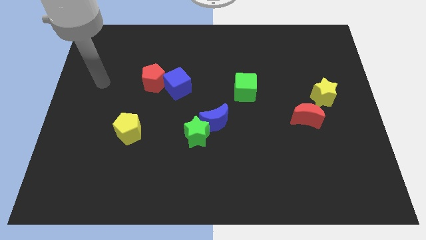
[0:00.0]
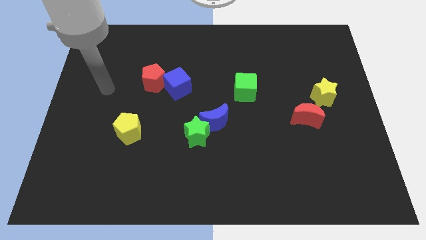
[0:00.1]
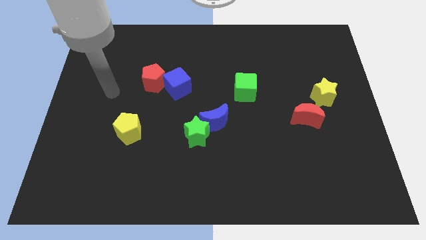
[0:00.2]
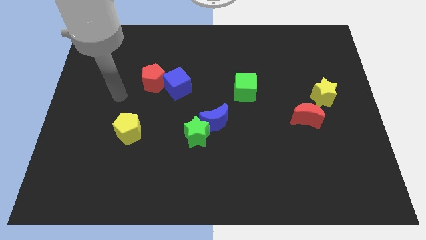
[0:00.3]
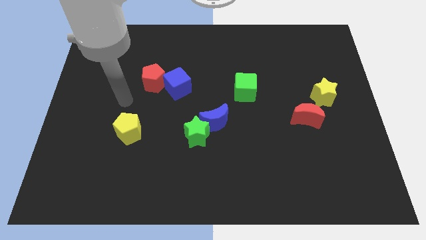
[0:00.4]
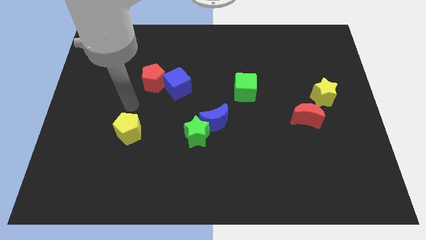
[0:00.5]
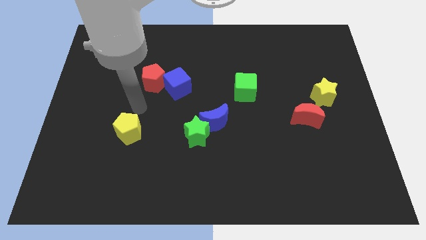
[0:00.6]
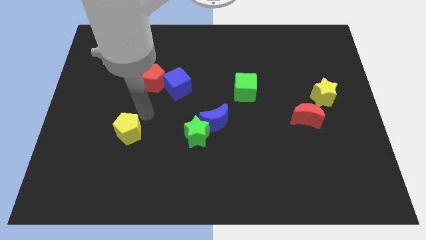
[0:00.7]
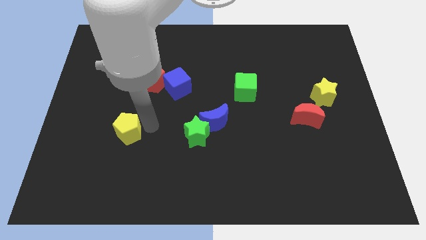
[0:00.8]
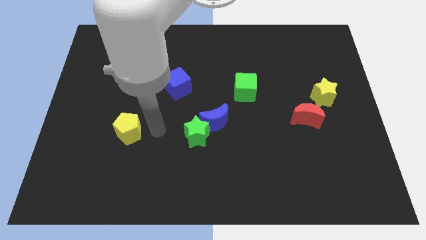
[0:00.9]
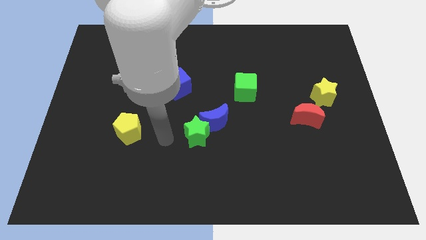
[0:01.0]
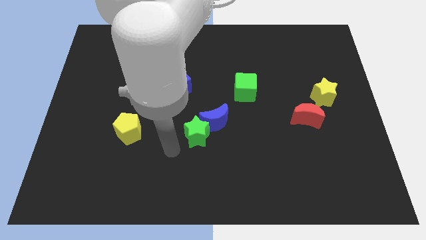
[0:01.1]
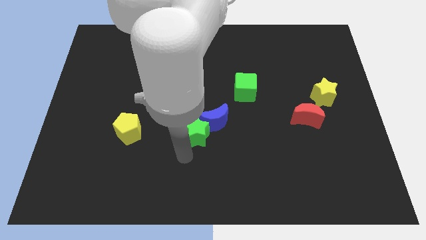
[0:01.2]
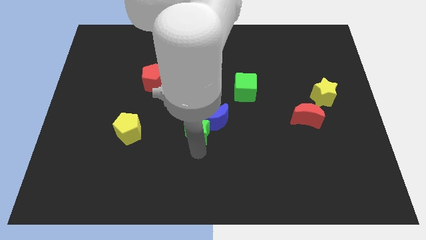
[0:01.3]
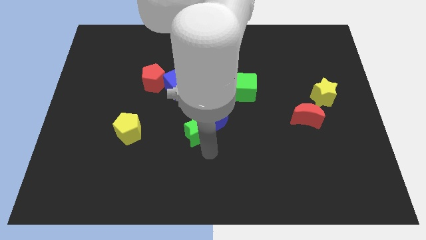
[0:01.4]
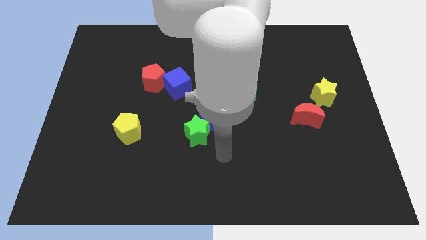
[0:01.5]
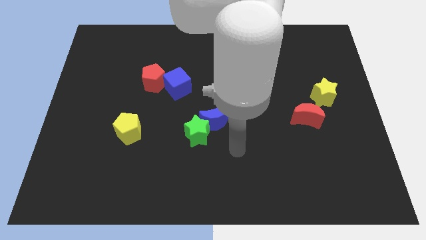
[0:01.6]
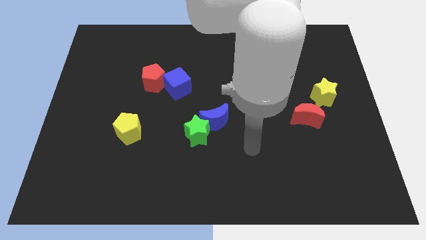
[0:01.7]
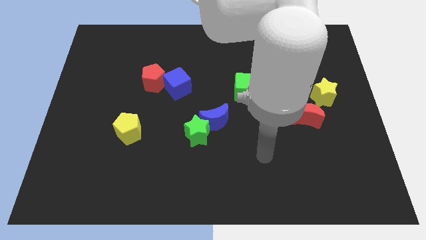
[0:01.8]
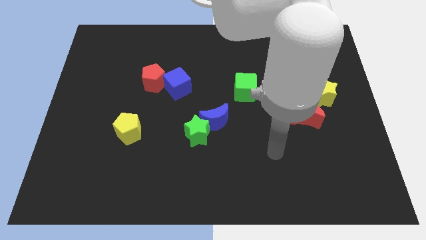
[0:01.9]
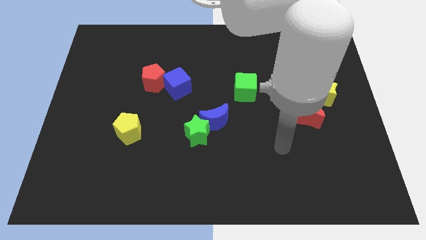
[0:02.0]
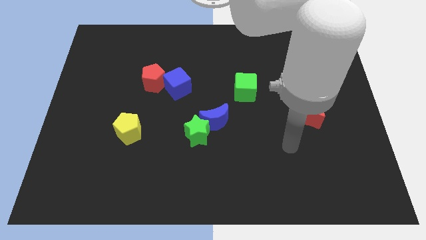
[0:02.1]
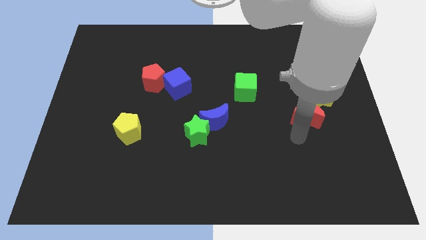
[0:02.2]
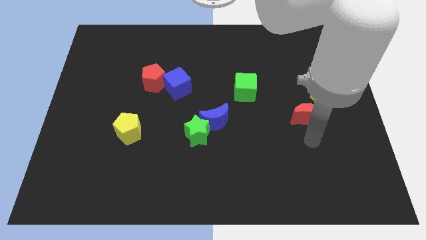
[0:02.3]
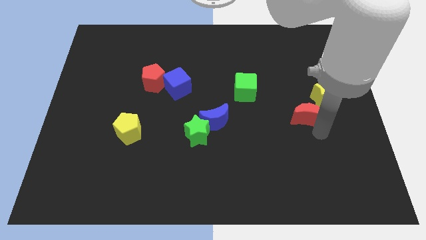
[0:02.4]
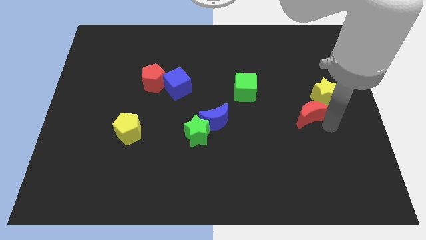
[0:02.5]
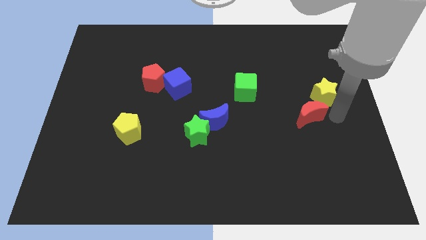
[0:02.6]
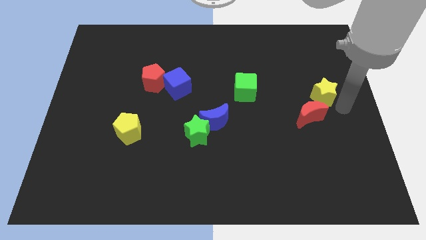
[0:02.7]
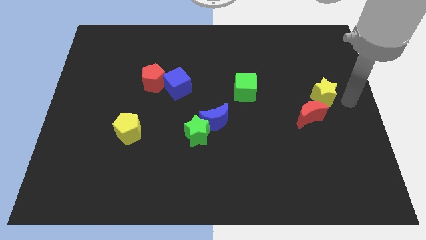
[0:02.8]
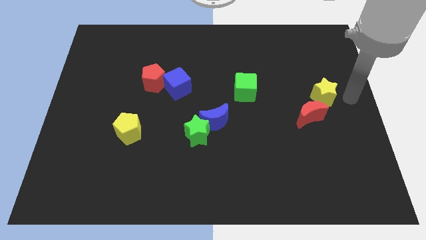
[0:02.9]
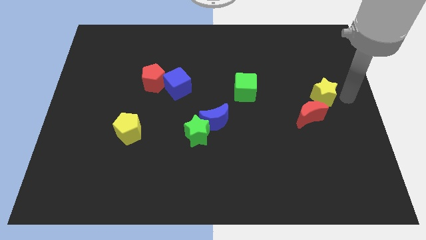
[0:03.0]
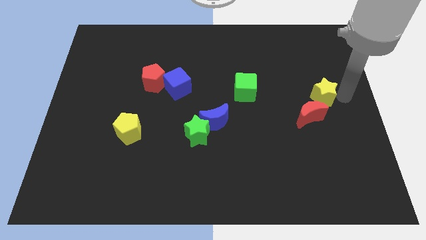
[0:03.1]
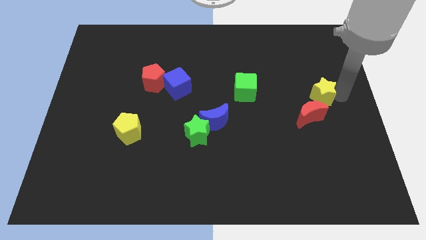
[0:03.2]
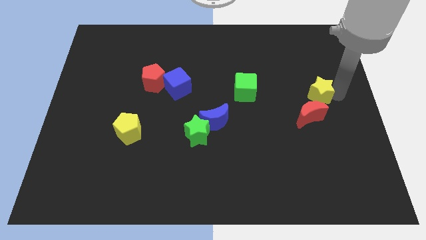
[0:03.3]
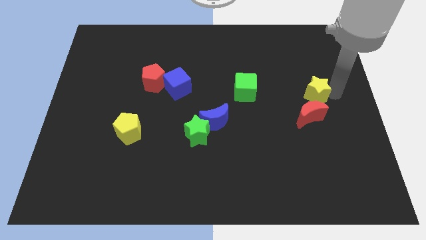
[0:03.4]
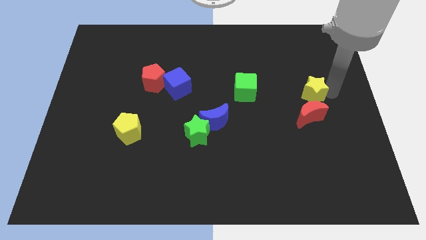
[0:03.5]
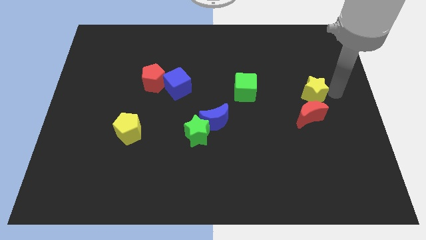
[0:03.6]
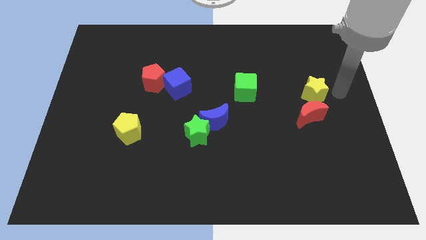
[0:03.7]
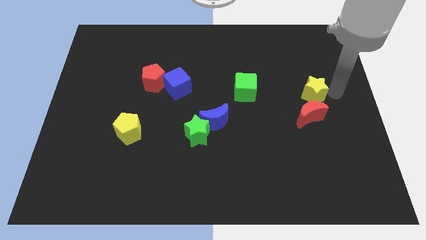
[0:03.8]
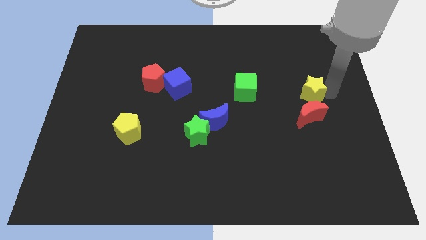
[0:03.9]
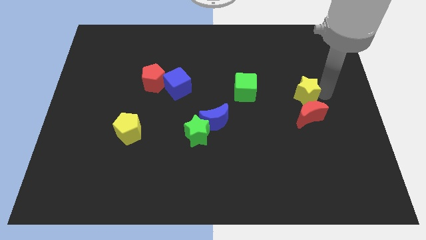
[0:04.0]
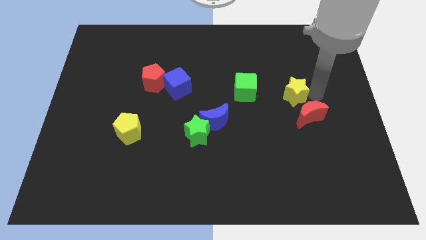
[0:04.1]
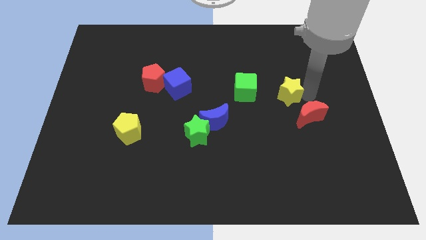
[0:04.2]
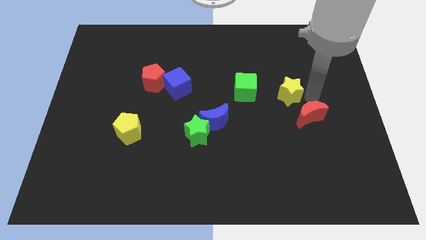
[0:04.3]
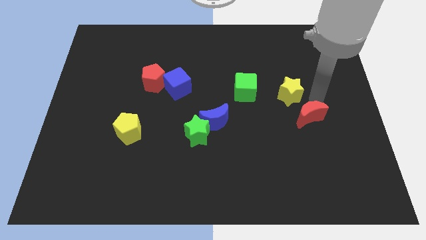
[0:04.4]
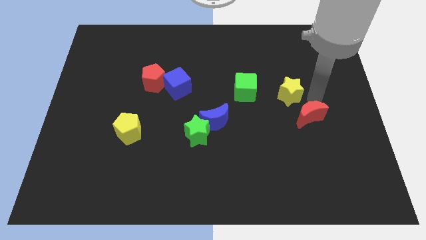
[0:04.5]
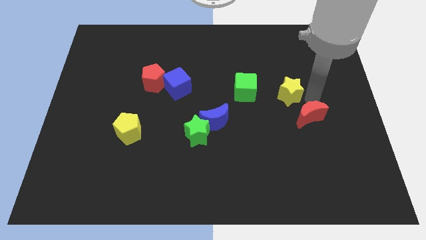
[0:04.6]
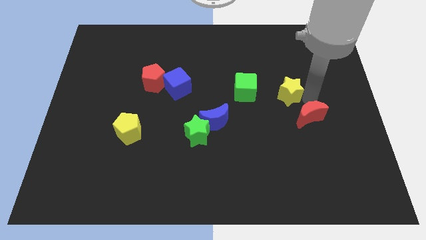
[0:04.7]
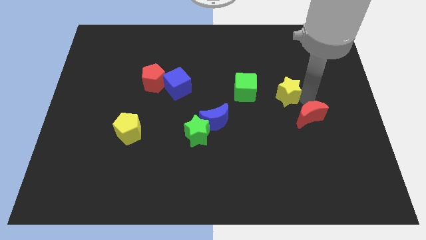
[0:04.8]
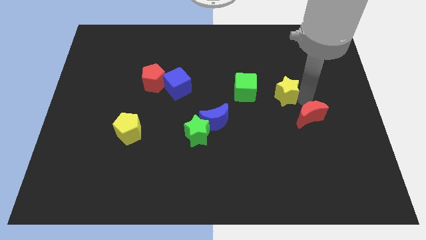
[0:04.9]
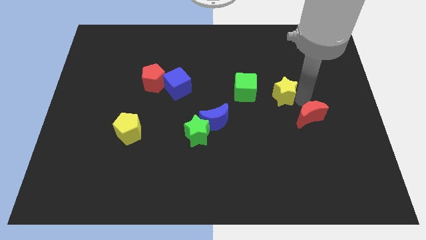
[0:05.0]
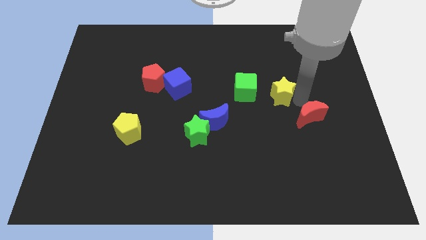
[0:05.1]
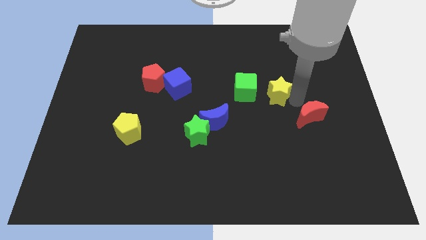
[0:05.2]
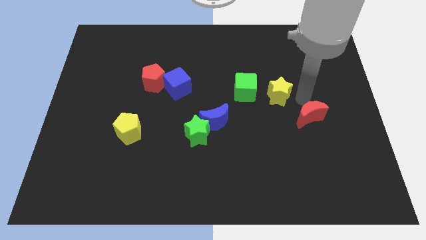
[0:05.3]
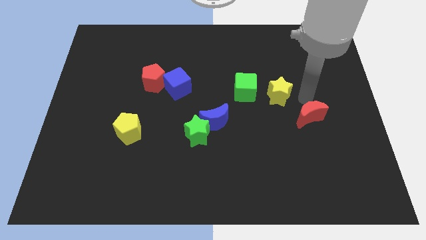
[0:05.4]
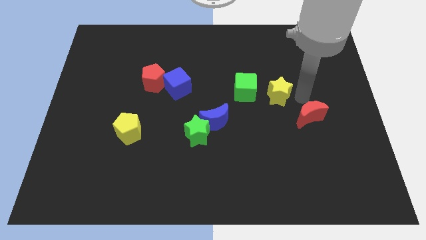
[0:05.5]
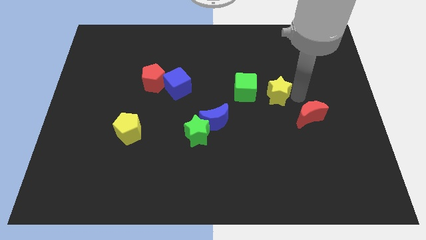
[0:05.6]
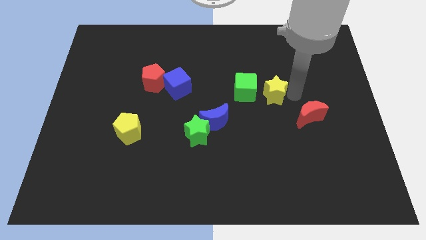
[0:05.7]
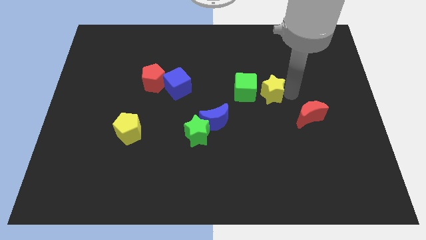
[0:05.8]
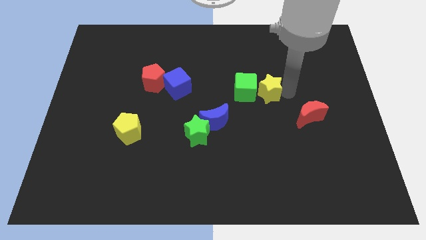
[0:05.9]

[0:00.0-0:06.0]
slide the yellow star next to the green cube

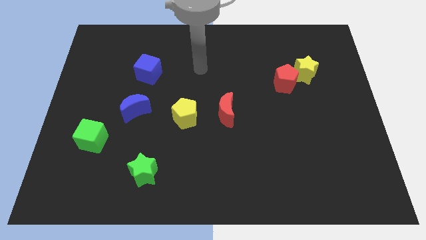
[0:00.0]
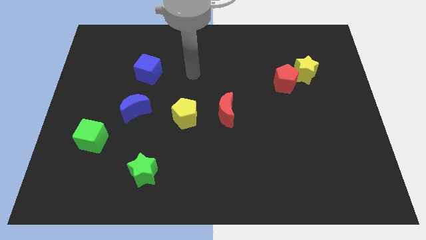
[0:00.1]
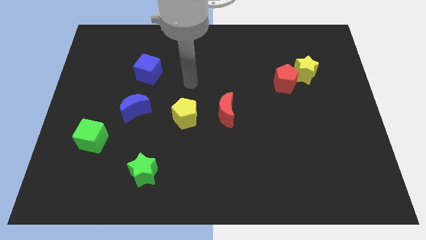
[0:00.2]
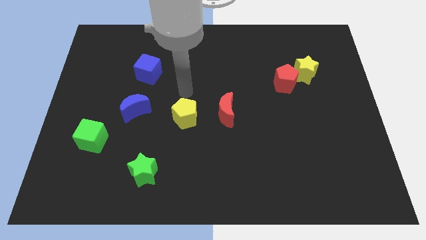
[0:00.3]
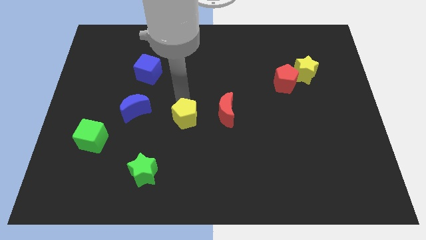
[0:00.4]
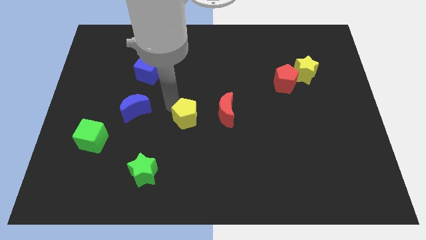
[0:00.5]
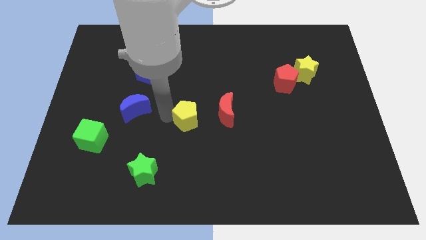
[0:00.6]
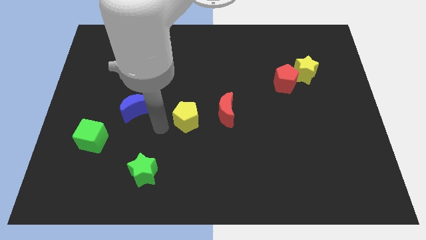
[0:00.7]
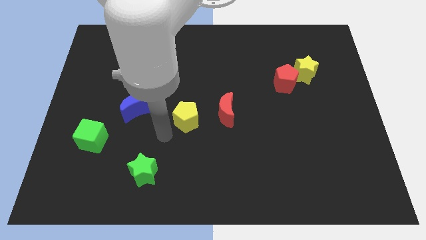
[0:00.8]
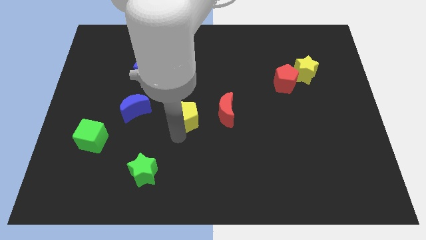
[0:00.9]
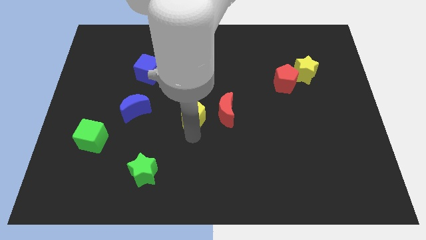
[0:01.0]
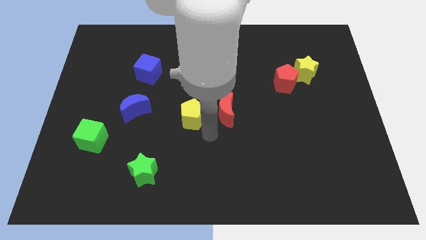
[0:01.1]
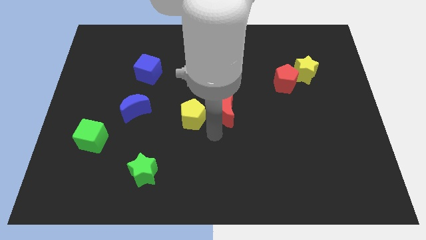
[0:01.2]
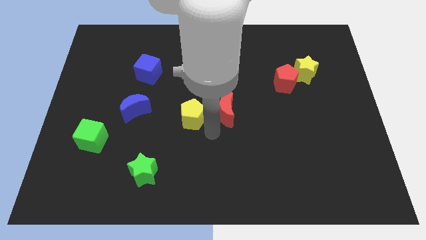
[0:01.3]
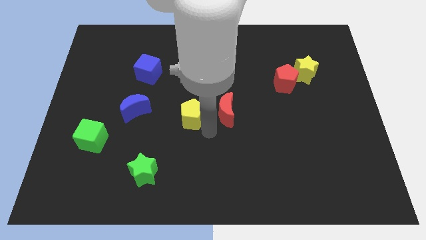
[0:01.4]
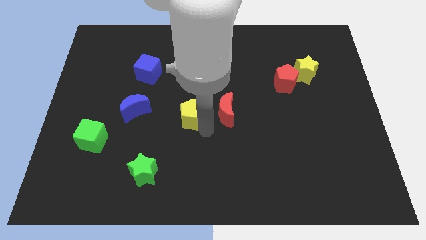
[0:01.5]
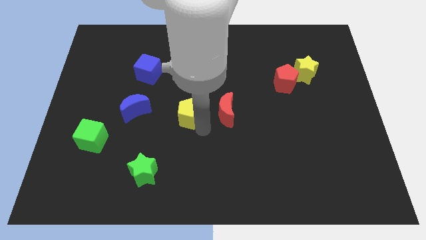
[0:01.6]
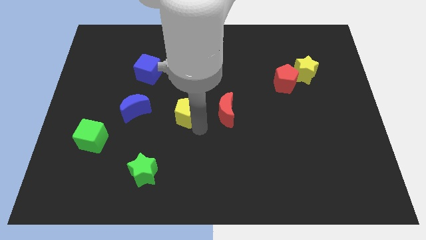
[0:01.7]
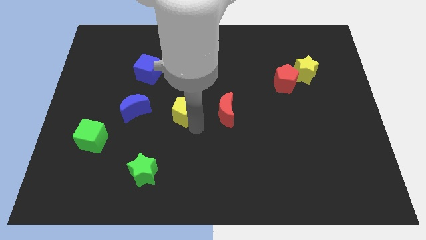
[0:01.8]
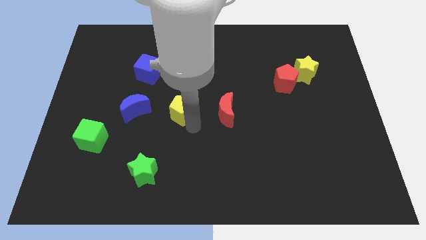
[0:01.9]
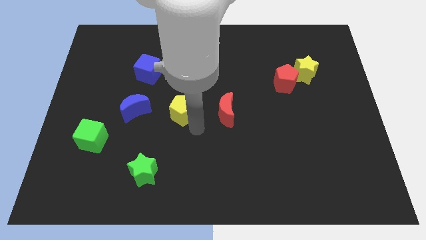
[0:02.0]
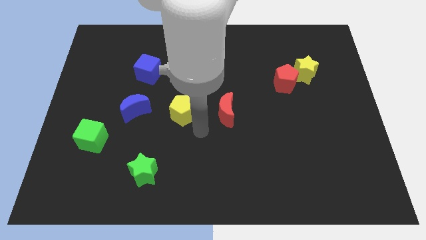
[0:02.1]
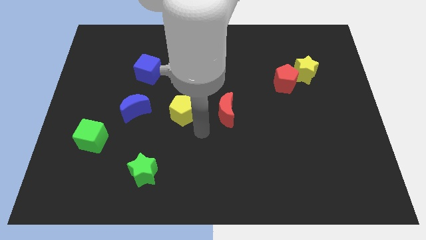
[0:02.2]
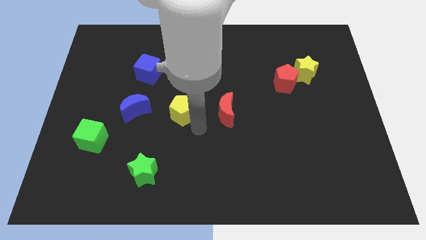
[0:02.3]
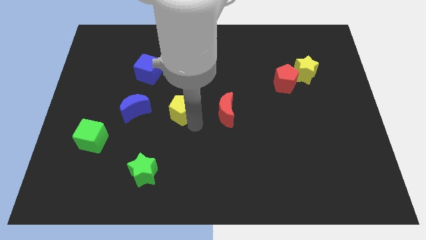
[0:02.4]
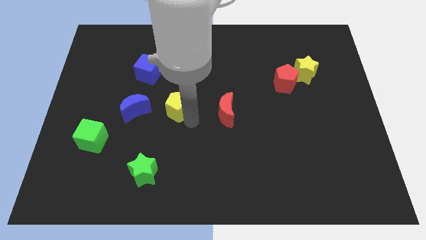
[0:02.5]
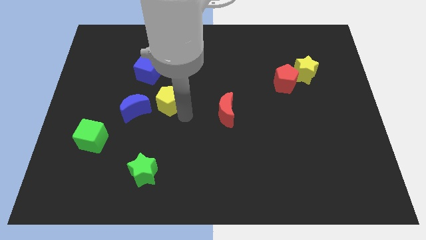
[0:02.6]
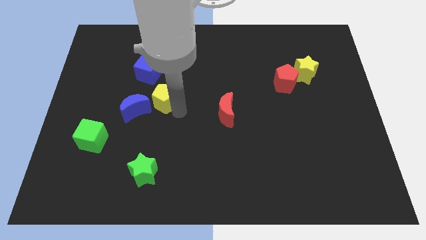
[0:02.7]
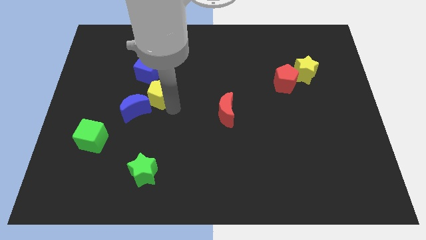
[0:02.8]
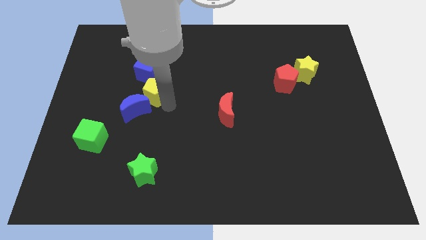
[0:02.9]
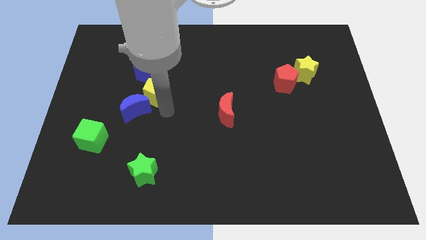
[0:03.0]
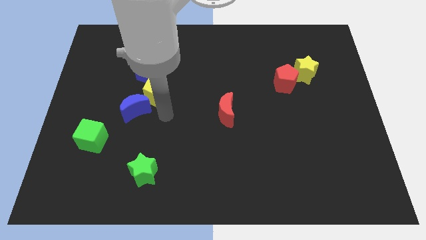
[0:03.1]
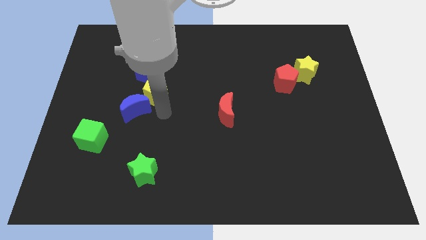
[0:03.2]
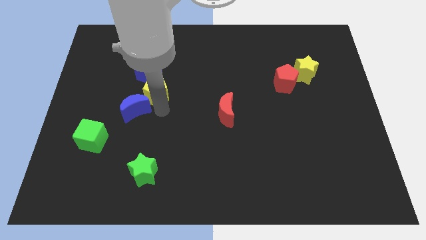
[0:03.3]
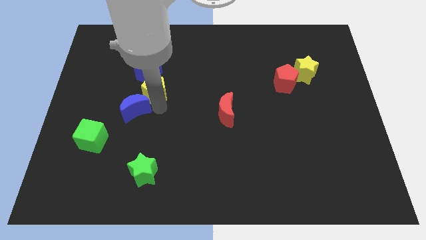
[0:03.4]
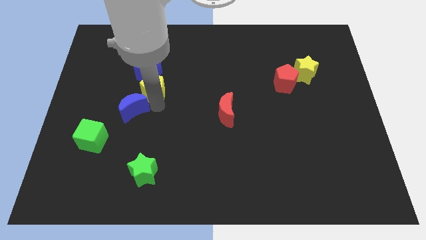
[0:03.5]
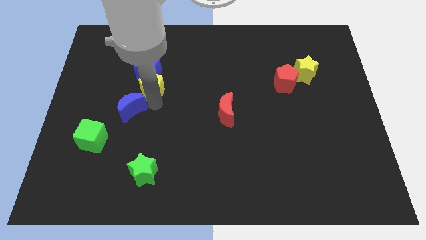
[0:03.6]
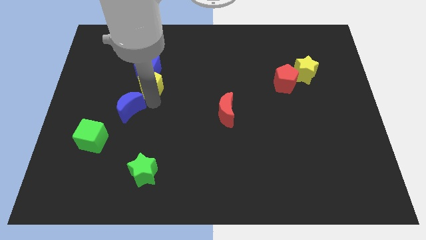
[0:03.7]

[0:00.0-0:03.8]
put the yellow pentagon to the blue cube
